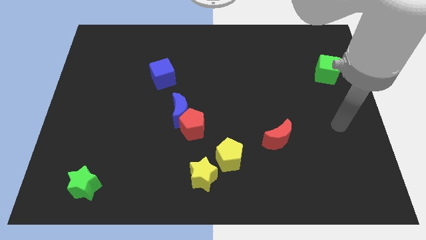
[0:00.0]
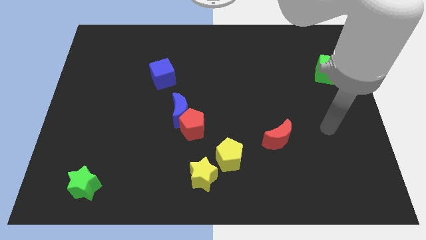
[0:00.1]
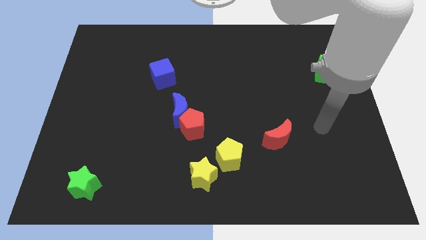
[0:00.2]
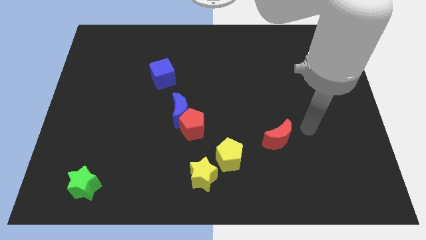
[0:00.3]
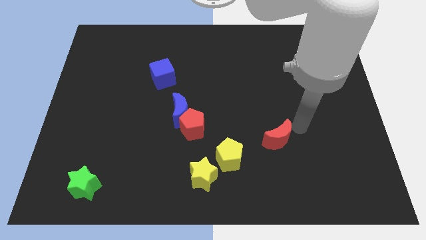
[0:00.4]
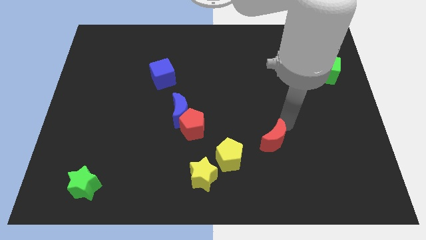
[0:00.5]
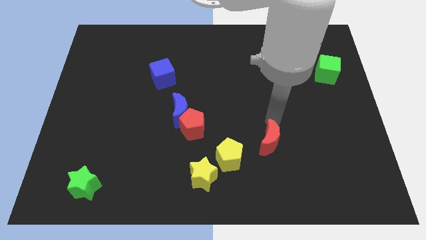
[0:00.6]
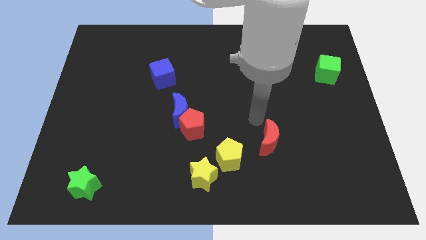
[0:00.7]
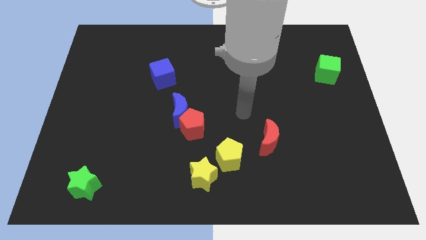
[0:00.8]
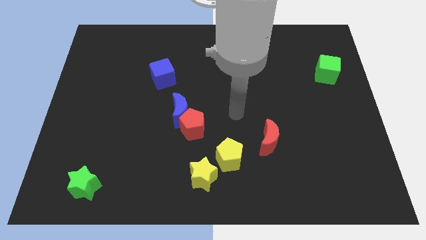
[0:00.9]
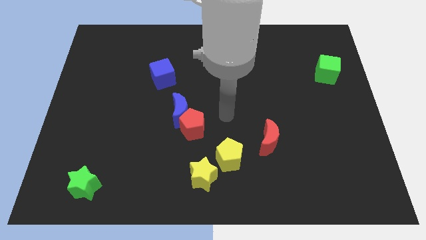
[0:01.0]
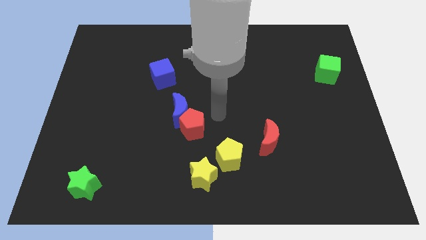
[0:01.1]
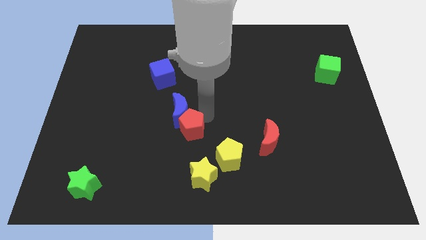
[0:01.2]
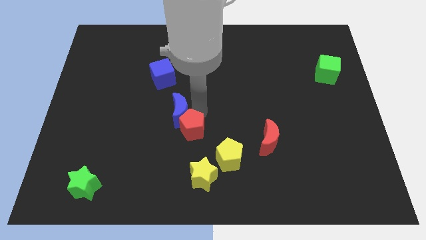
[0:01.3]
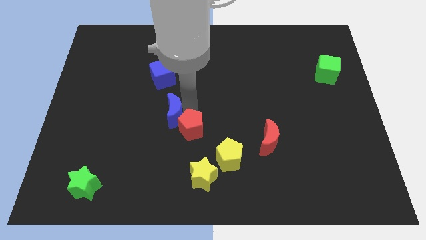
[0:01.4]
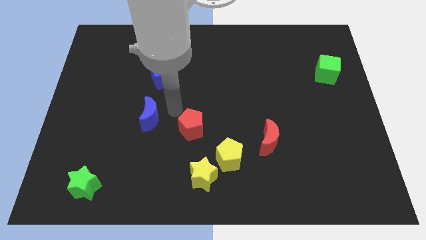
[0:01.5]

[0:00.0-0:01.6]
move the red pentagon away from the blue moon

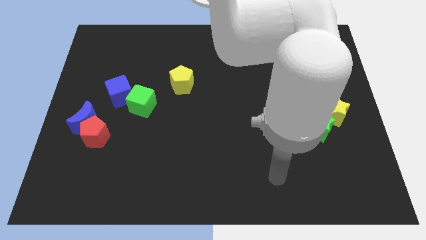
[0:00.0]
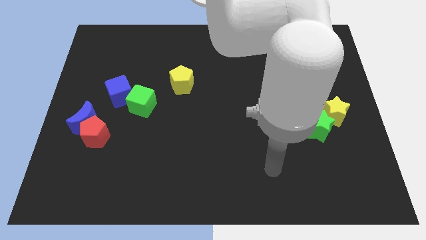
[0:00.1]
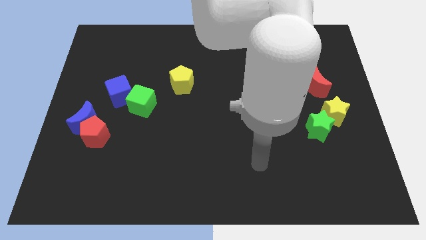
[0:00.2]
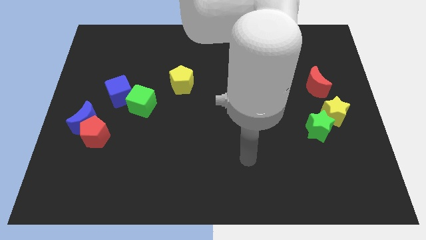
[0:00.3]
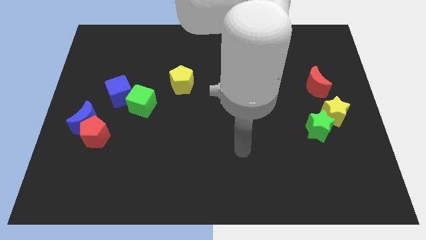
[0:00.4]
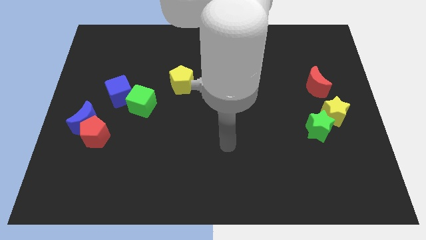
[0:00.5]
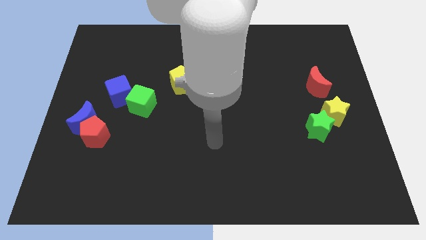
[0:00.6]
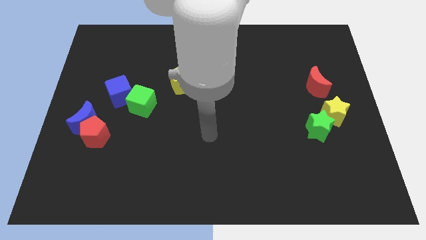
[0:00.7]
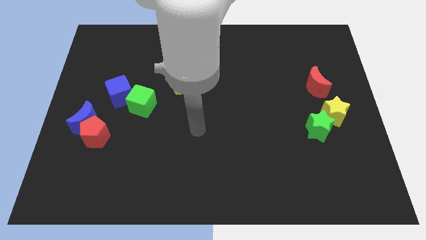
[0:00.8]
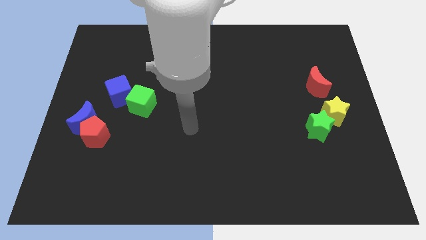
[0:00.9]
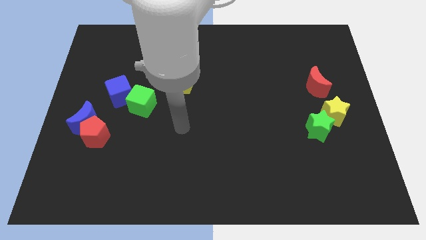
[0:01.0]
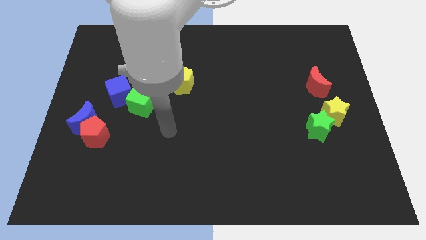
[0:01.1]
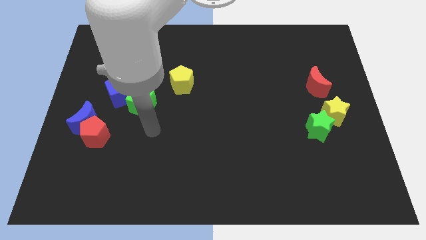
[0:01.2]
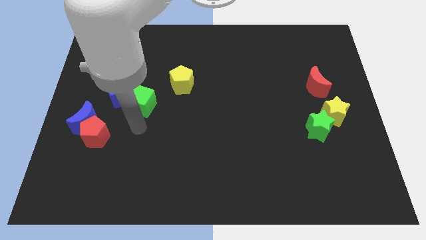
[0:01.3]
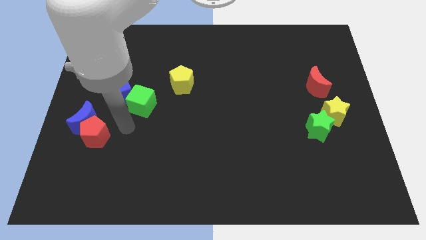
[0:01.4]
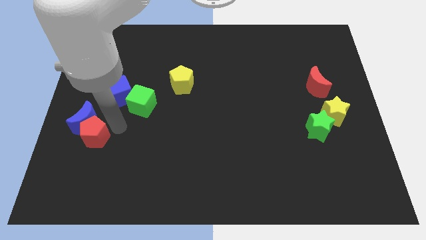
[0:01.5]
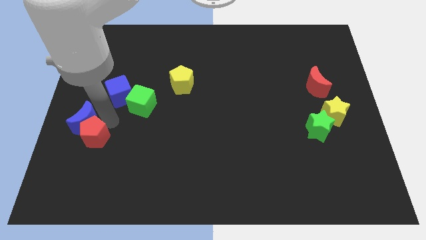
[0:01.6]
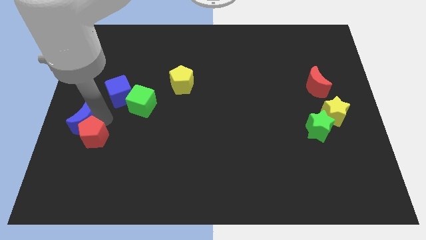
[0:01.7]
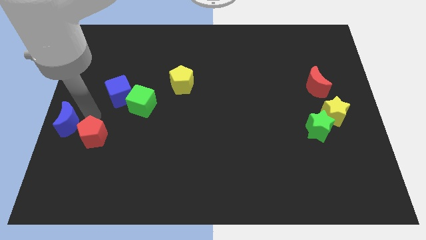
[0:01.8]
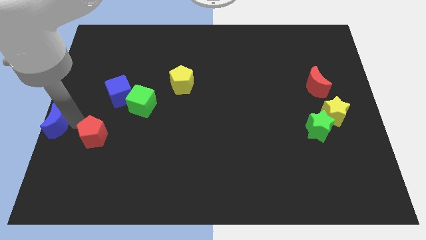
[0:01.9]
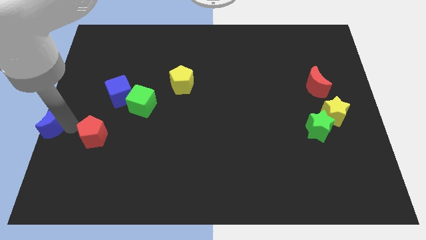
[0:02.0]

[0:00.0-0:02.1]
pull the red pentagon apart from the blue moon

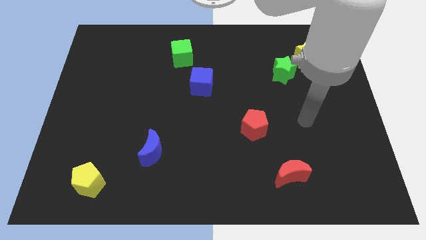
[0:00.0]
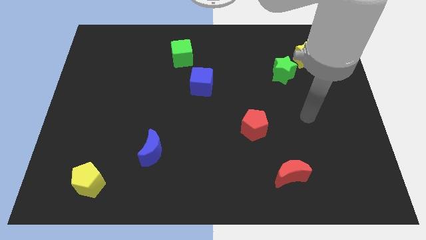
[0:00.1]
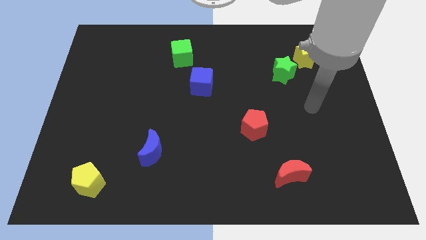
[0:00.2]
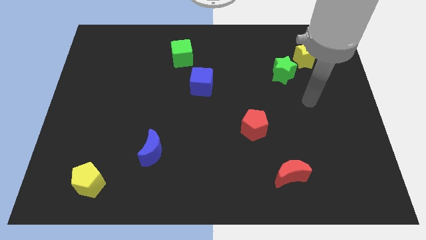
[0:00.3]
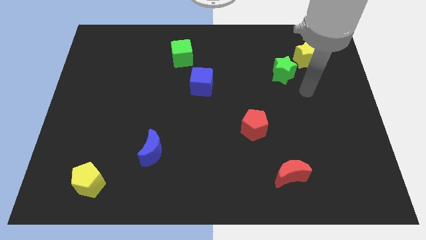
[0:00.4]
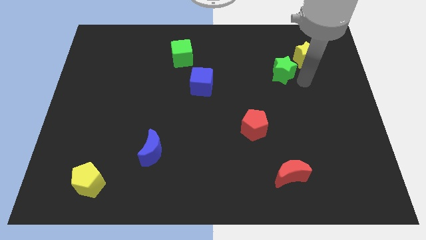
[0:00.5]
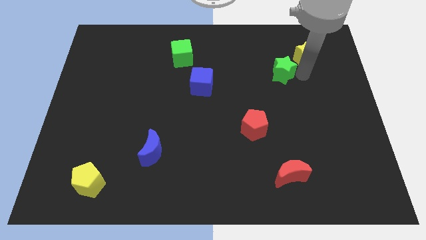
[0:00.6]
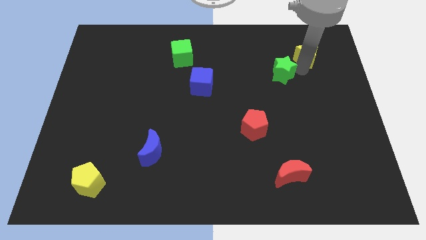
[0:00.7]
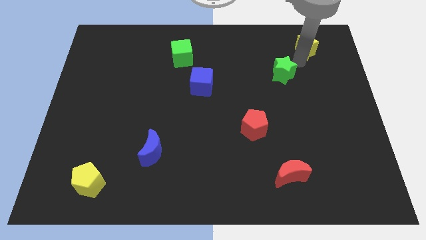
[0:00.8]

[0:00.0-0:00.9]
separate the green star from the yellow star

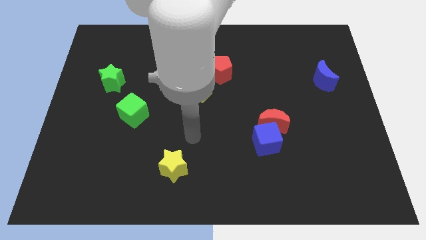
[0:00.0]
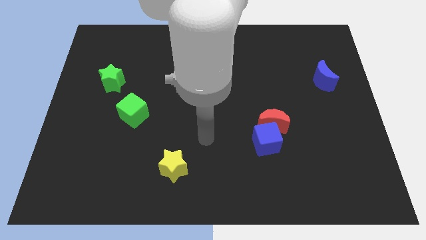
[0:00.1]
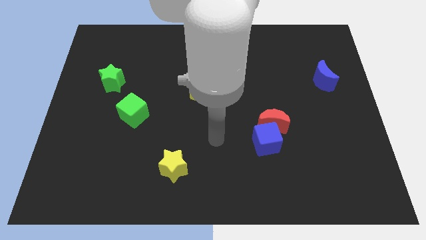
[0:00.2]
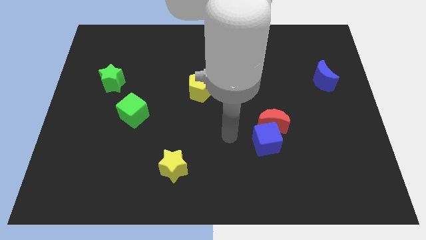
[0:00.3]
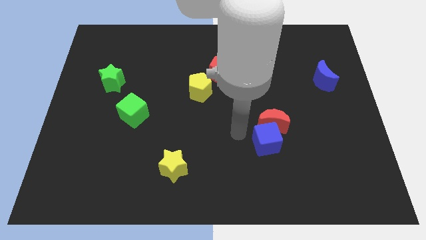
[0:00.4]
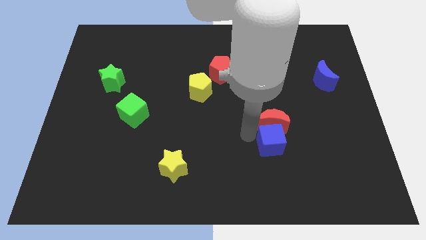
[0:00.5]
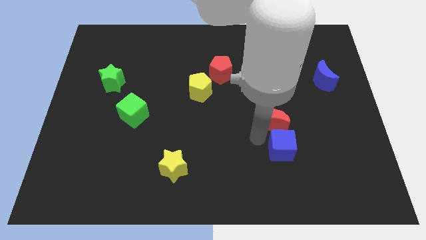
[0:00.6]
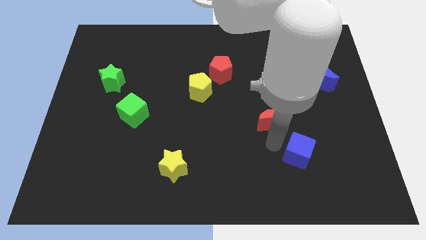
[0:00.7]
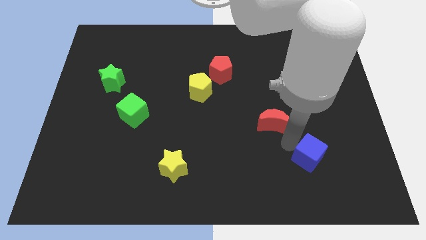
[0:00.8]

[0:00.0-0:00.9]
pull the red moon apart from the blue cube

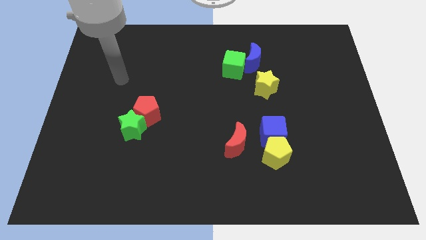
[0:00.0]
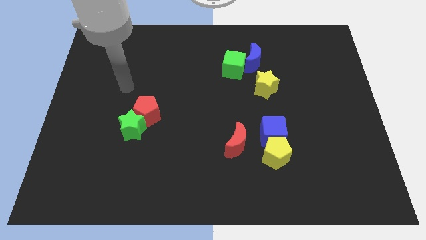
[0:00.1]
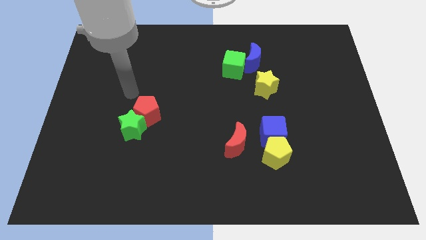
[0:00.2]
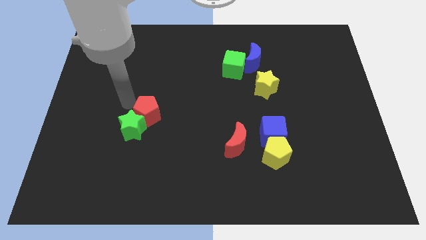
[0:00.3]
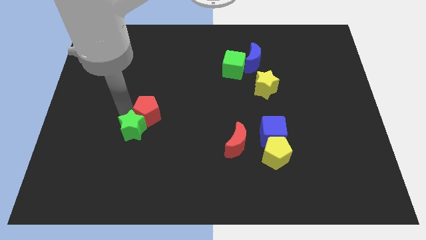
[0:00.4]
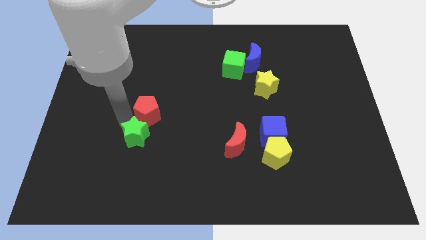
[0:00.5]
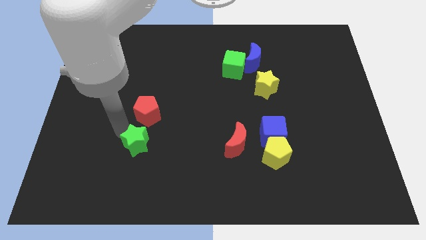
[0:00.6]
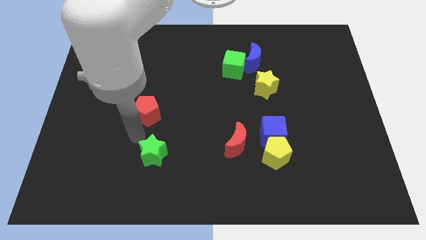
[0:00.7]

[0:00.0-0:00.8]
move the red pentagon away from the green star

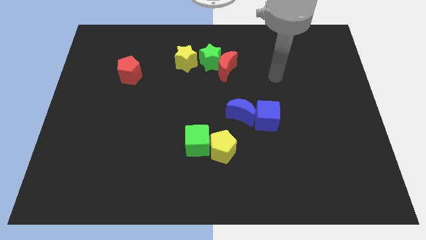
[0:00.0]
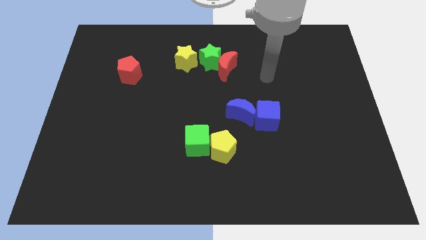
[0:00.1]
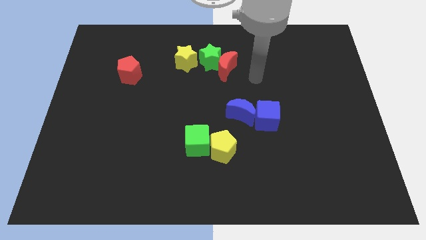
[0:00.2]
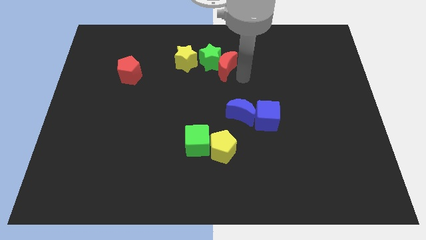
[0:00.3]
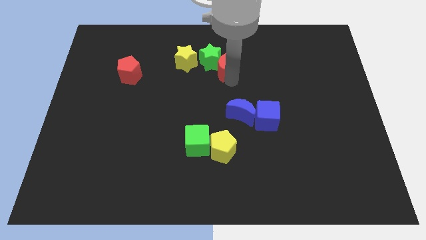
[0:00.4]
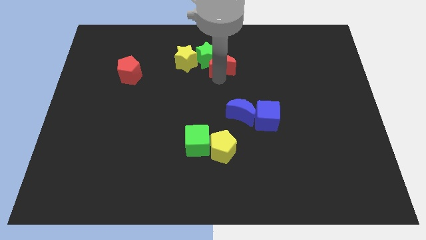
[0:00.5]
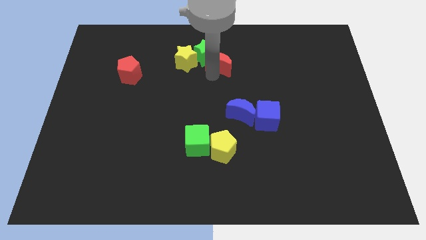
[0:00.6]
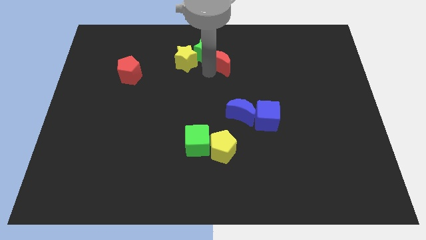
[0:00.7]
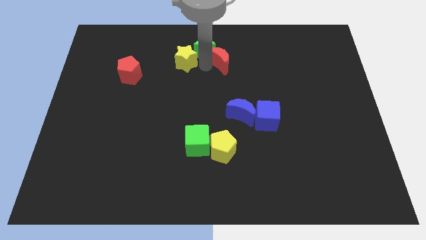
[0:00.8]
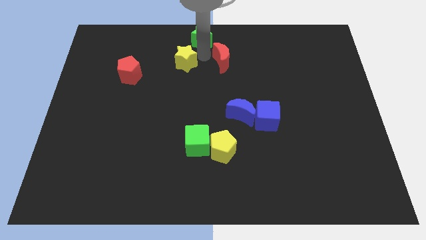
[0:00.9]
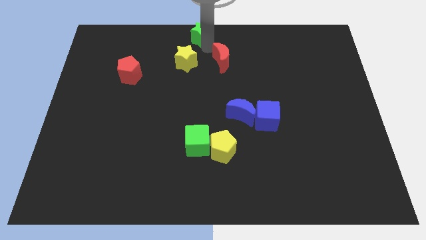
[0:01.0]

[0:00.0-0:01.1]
pull the red moon apart from the green star

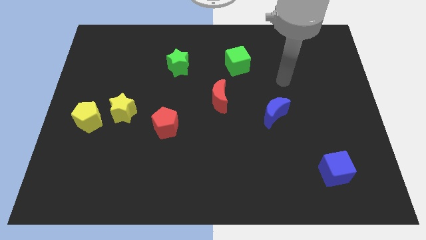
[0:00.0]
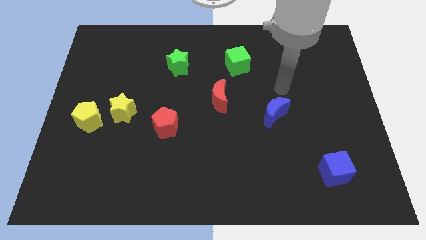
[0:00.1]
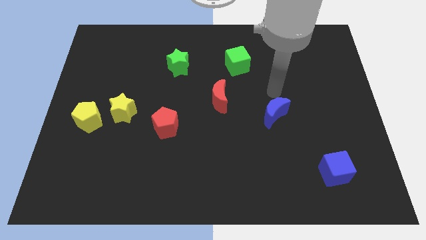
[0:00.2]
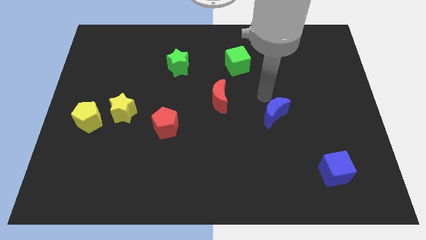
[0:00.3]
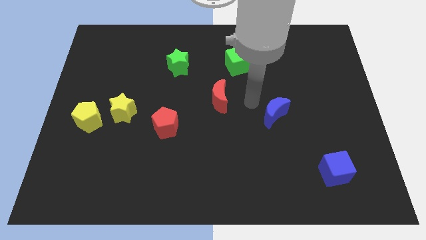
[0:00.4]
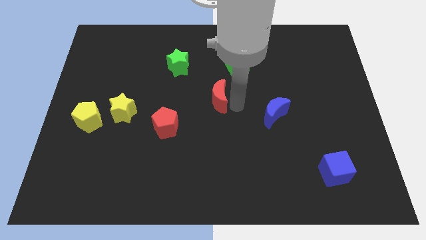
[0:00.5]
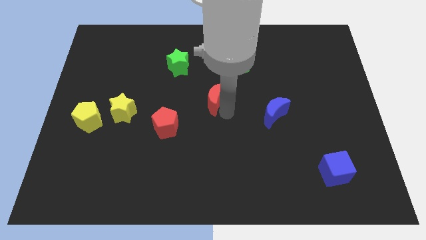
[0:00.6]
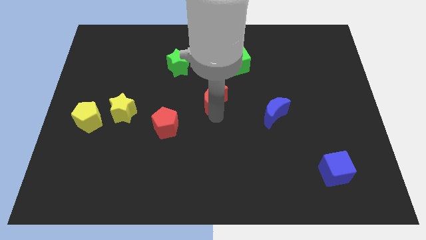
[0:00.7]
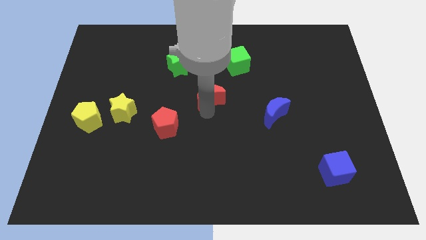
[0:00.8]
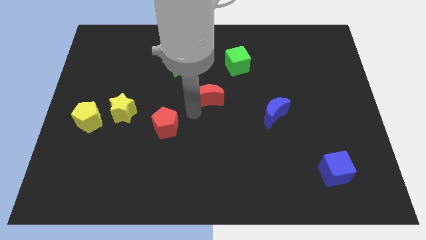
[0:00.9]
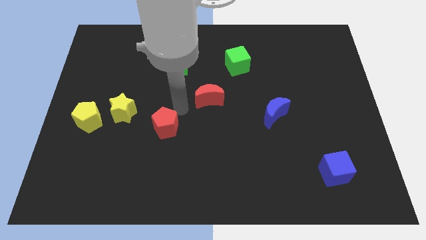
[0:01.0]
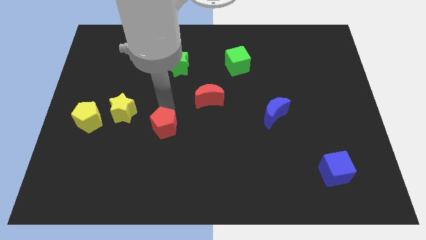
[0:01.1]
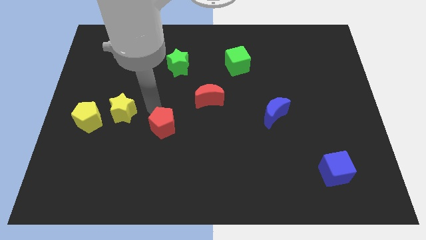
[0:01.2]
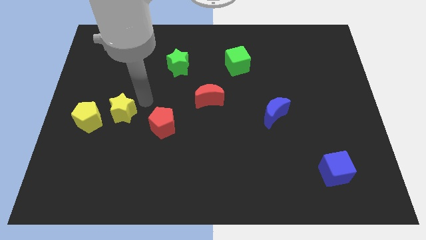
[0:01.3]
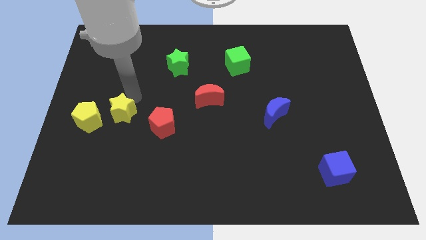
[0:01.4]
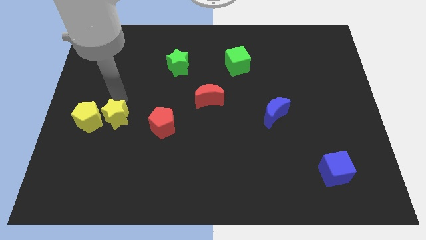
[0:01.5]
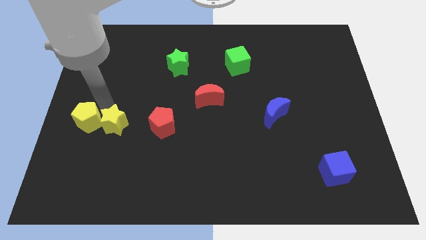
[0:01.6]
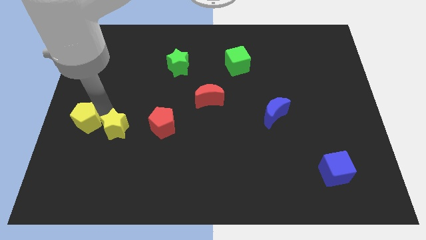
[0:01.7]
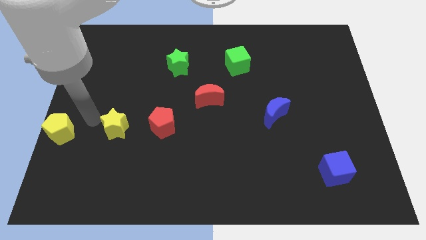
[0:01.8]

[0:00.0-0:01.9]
separate the yellow star from the yellow pentagon
